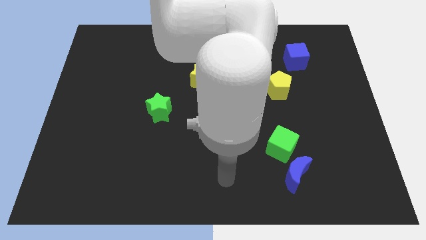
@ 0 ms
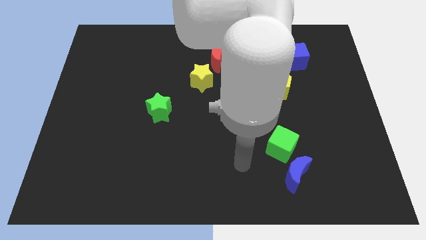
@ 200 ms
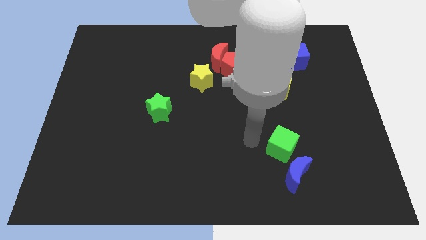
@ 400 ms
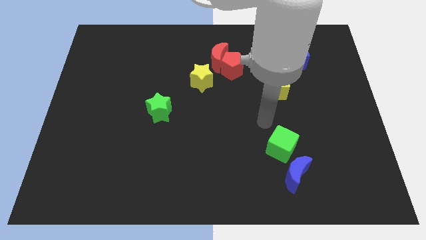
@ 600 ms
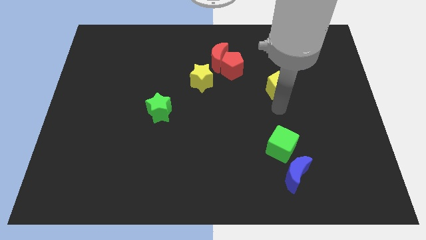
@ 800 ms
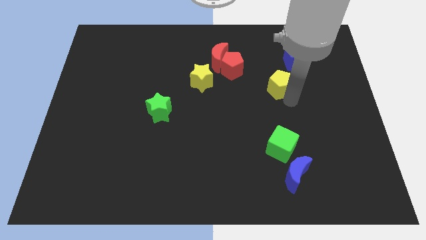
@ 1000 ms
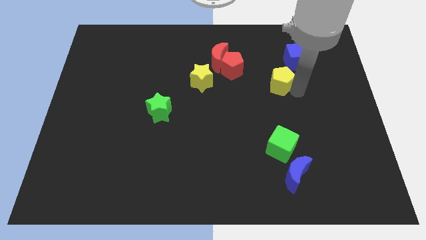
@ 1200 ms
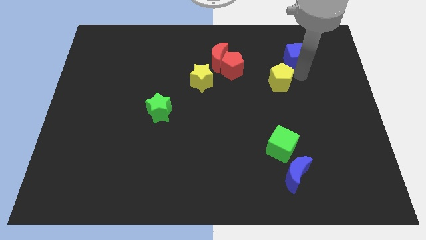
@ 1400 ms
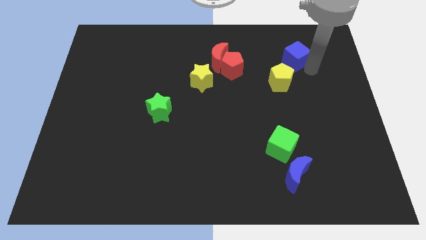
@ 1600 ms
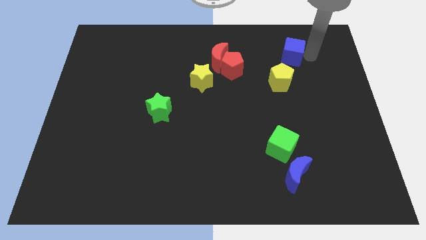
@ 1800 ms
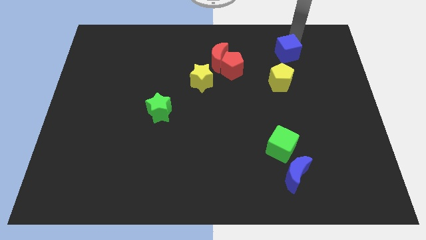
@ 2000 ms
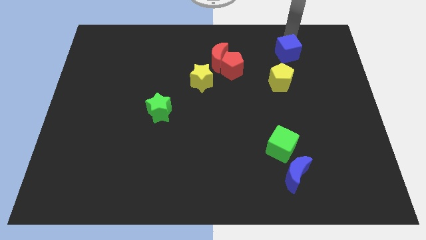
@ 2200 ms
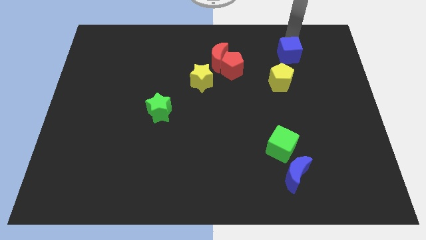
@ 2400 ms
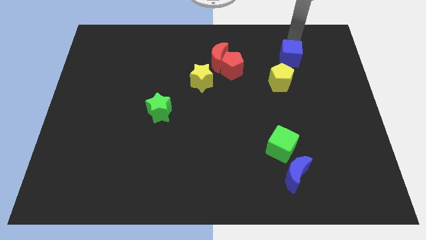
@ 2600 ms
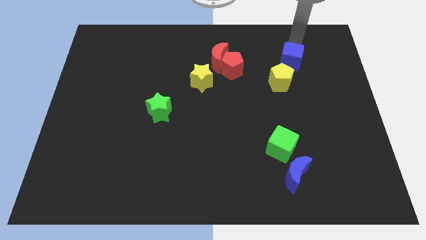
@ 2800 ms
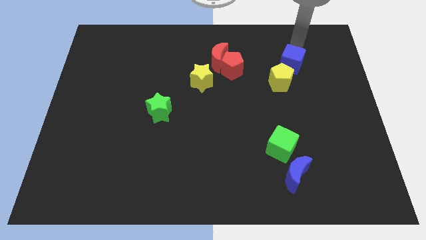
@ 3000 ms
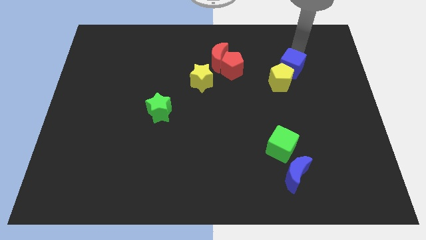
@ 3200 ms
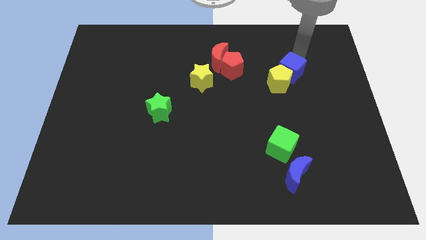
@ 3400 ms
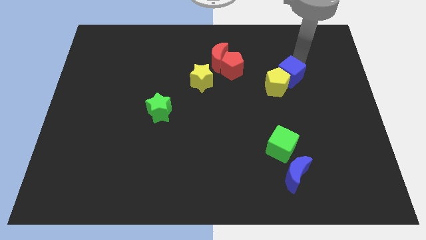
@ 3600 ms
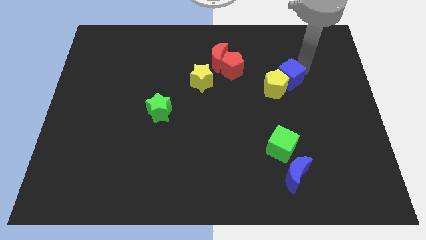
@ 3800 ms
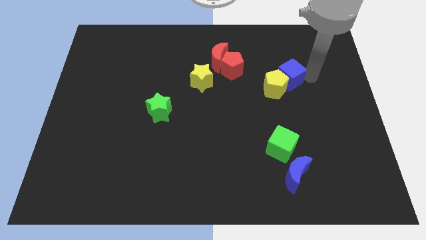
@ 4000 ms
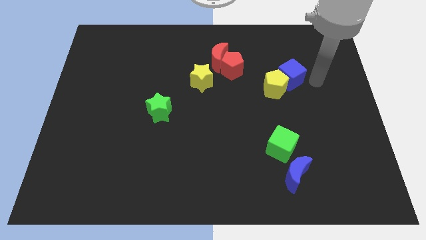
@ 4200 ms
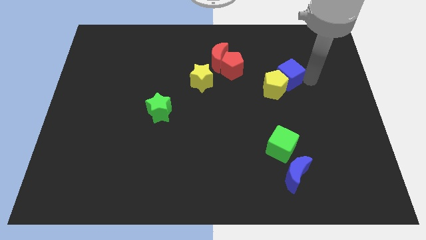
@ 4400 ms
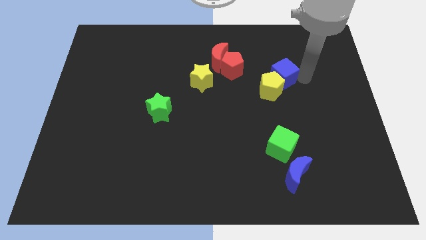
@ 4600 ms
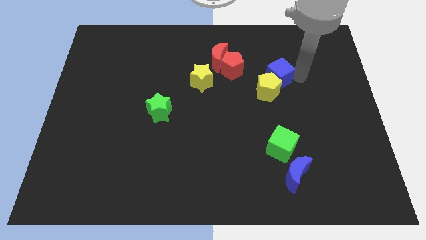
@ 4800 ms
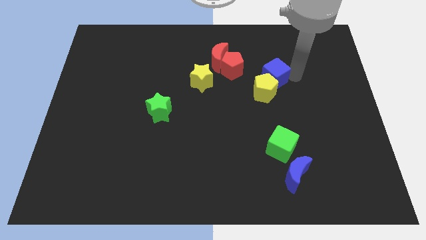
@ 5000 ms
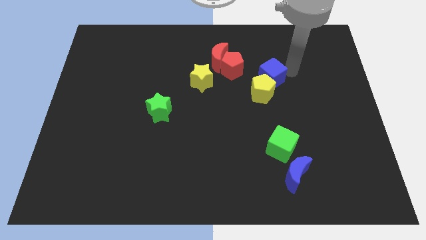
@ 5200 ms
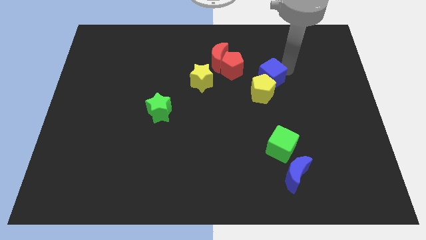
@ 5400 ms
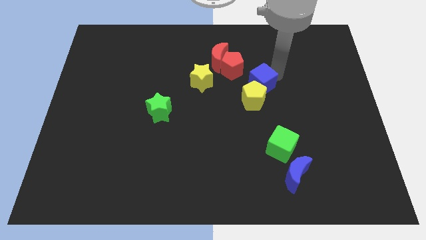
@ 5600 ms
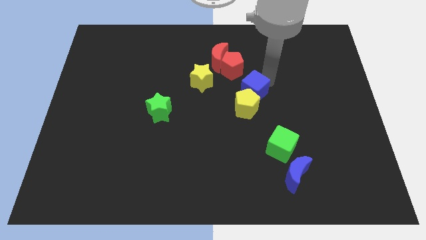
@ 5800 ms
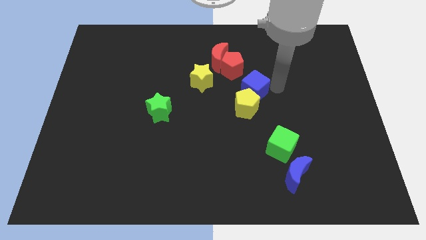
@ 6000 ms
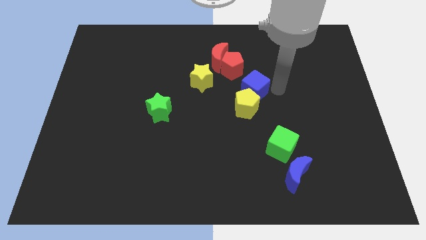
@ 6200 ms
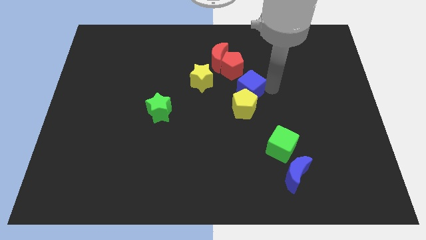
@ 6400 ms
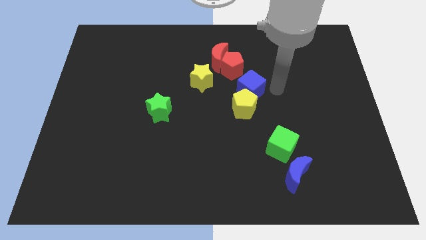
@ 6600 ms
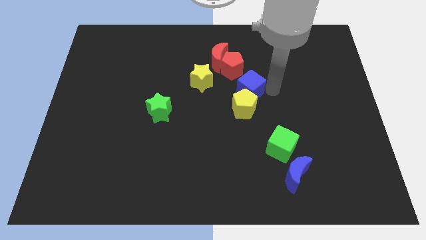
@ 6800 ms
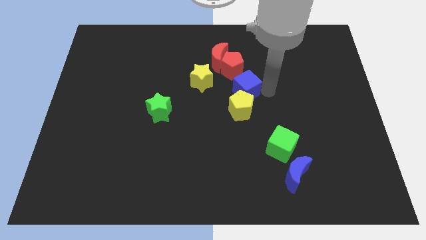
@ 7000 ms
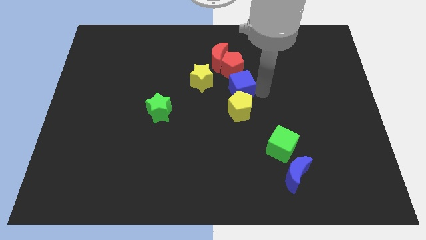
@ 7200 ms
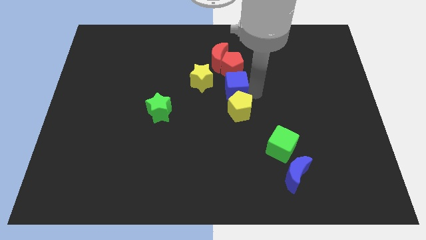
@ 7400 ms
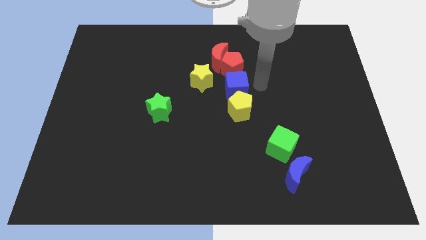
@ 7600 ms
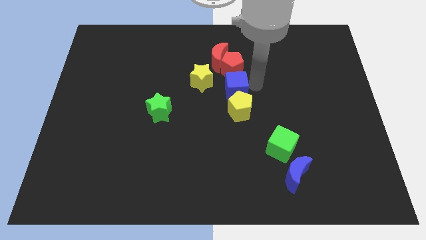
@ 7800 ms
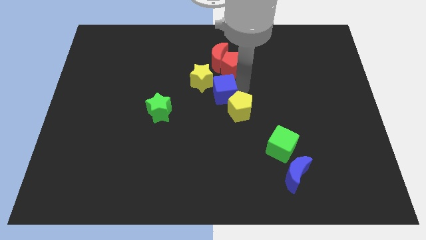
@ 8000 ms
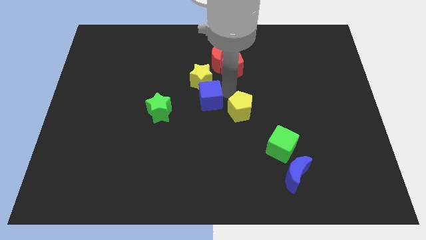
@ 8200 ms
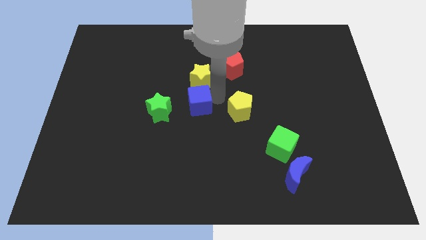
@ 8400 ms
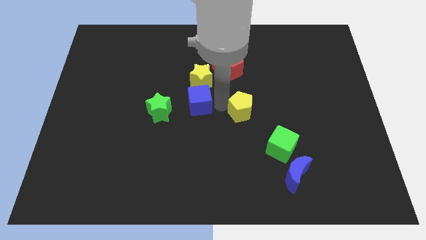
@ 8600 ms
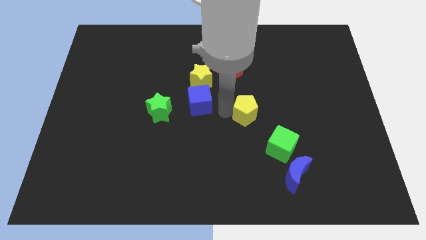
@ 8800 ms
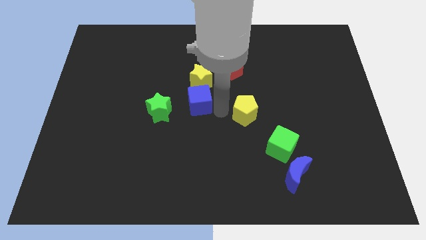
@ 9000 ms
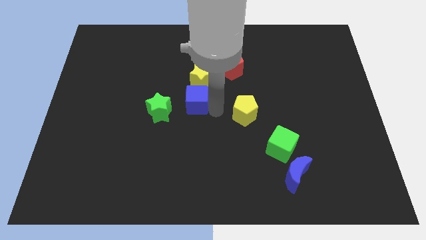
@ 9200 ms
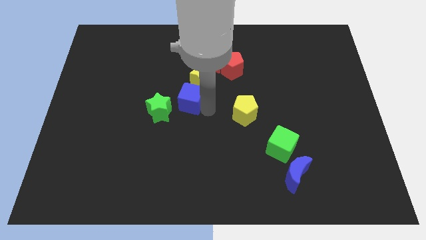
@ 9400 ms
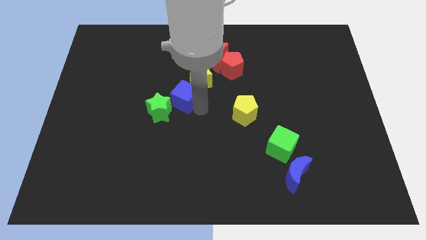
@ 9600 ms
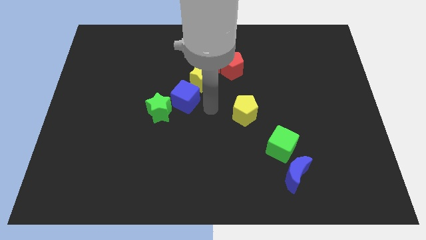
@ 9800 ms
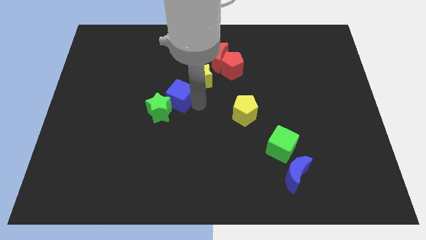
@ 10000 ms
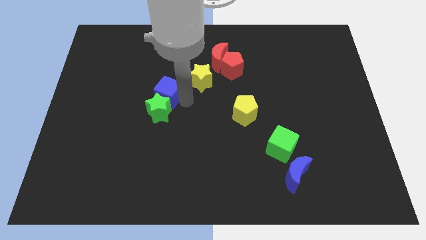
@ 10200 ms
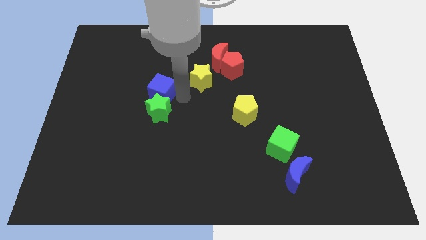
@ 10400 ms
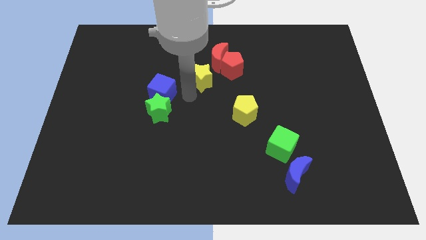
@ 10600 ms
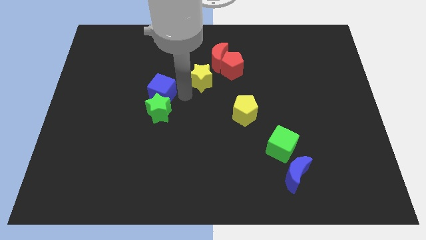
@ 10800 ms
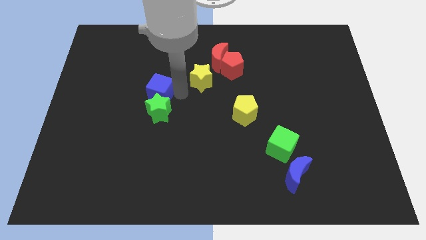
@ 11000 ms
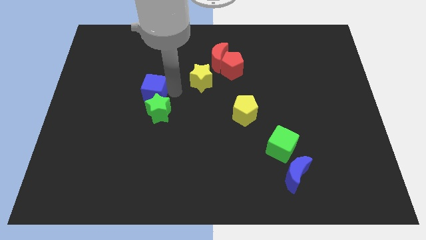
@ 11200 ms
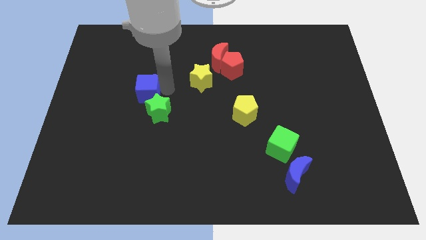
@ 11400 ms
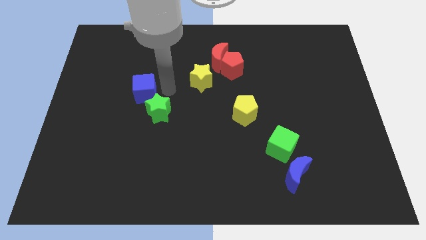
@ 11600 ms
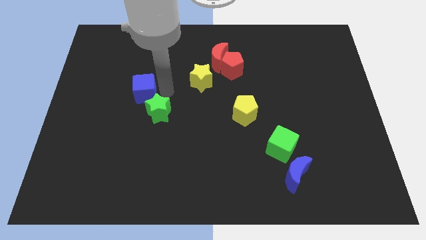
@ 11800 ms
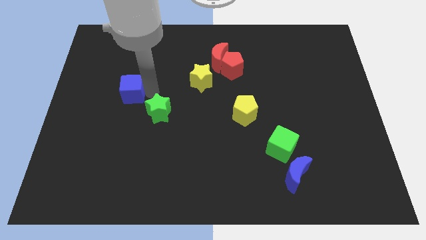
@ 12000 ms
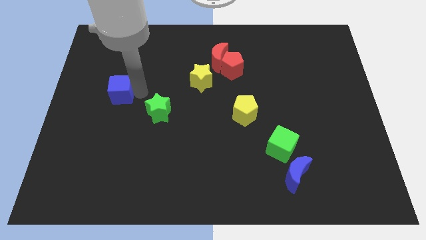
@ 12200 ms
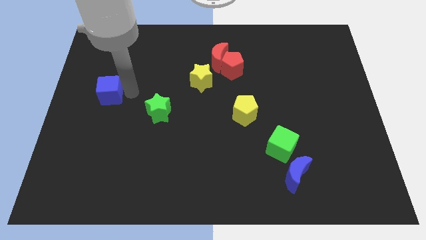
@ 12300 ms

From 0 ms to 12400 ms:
slide the blue cube to the left side
